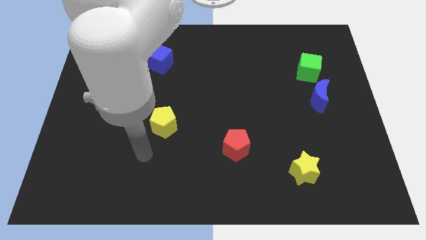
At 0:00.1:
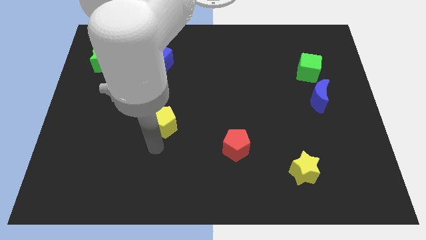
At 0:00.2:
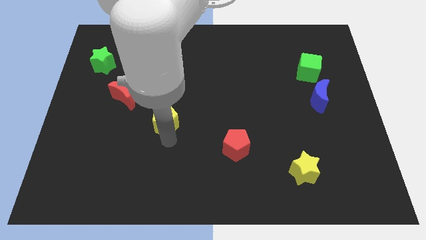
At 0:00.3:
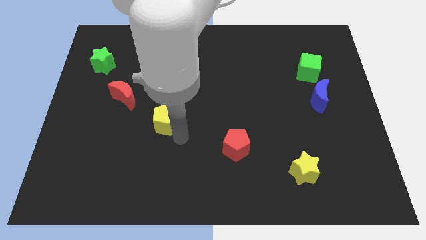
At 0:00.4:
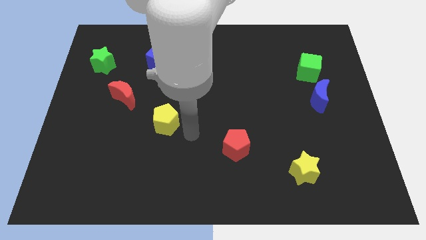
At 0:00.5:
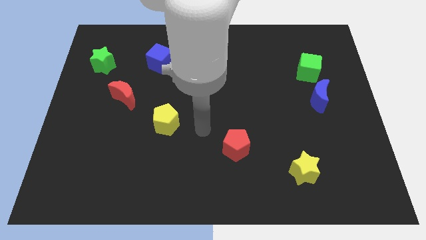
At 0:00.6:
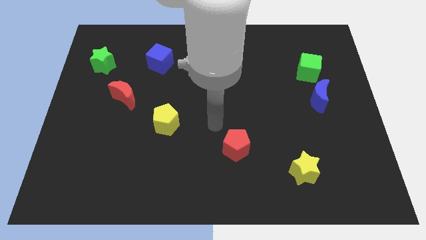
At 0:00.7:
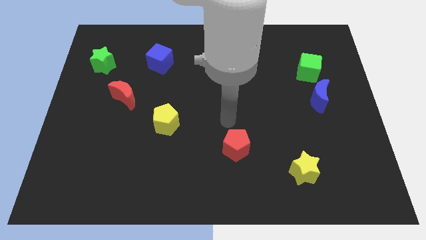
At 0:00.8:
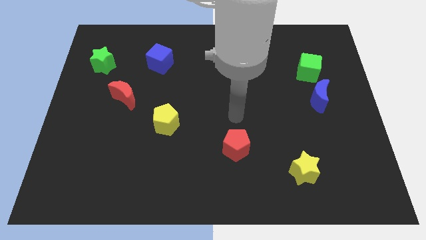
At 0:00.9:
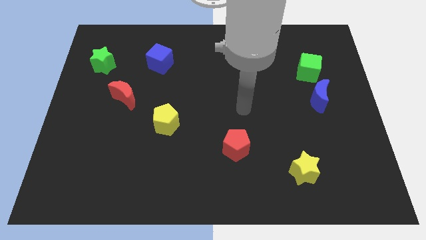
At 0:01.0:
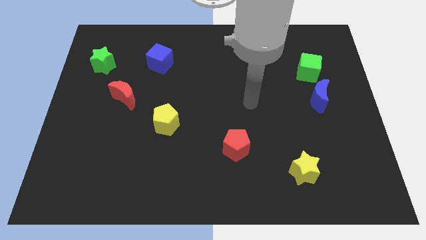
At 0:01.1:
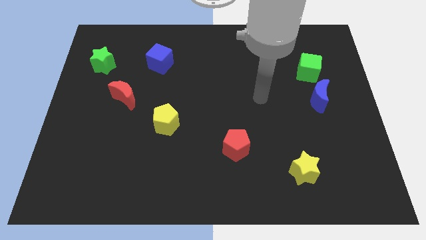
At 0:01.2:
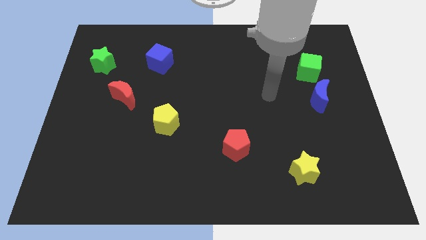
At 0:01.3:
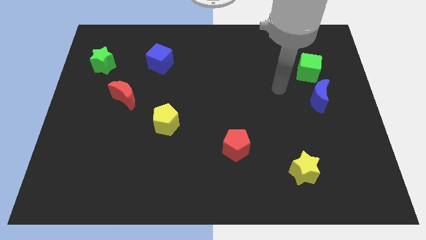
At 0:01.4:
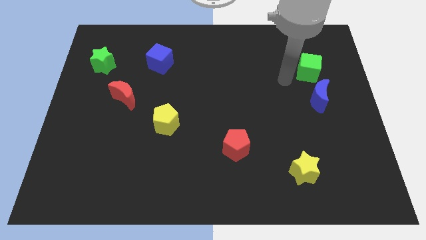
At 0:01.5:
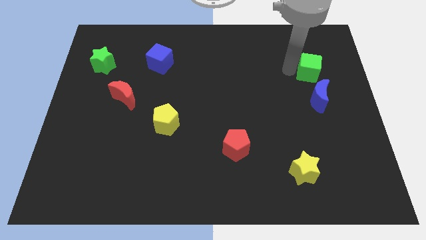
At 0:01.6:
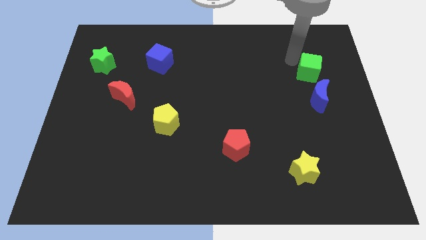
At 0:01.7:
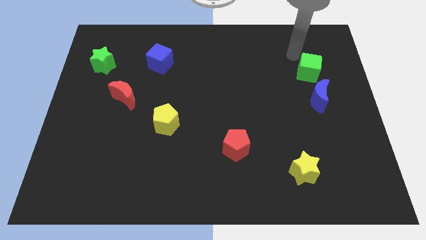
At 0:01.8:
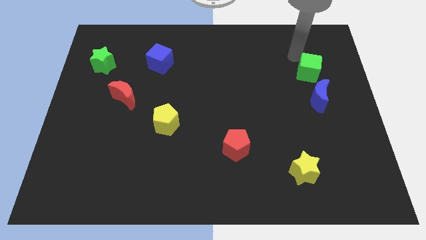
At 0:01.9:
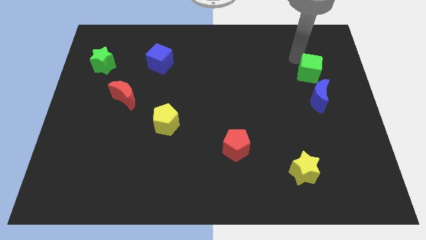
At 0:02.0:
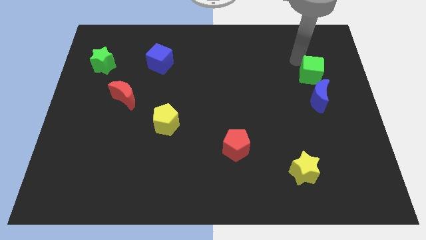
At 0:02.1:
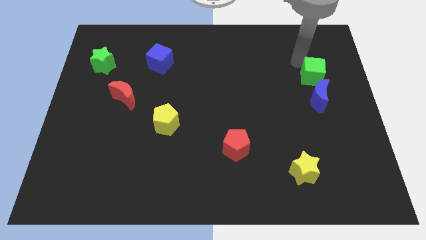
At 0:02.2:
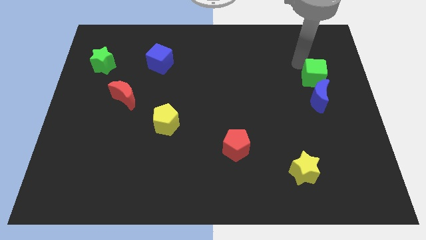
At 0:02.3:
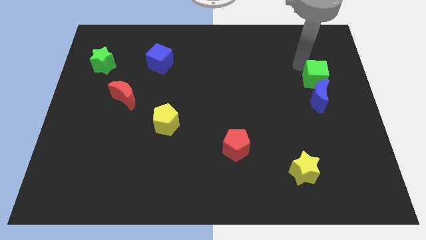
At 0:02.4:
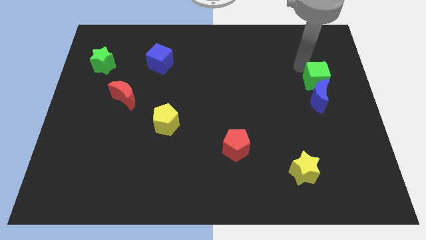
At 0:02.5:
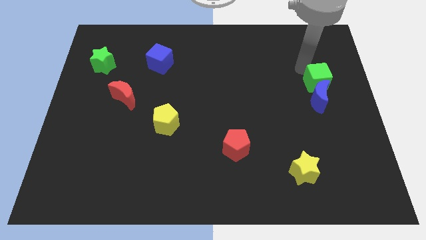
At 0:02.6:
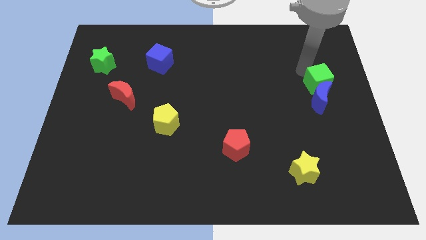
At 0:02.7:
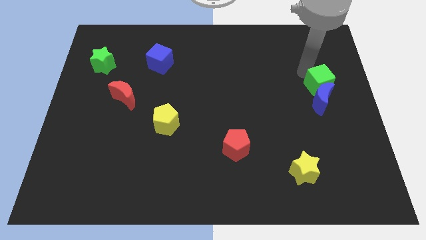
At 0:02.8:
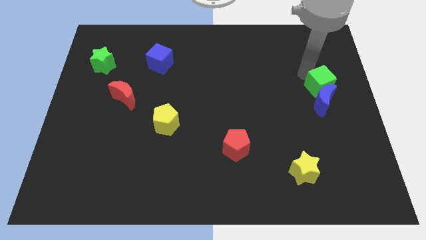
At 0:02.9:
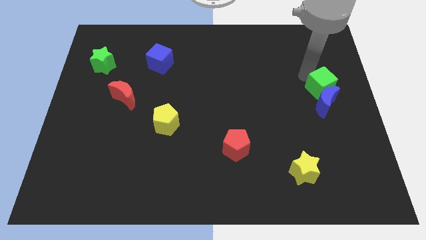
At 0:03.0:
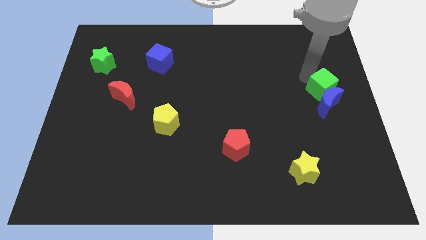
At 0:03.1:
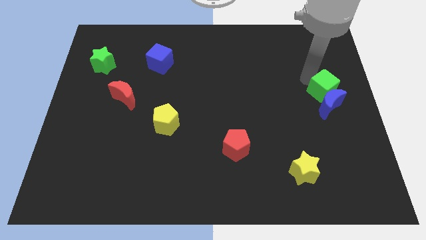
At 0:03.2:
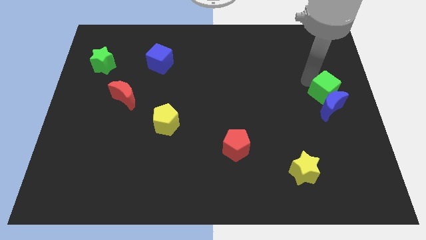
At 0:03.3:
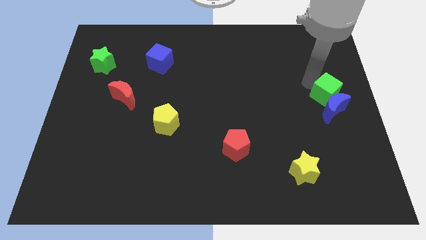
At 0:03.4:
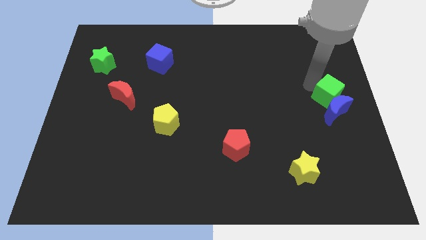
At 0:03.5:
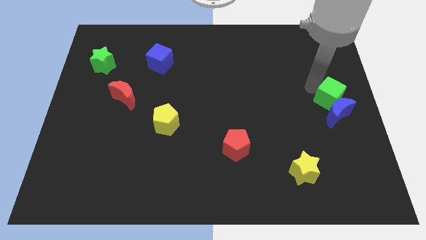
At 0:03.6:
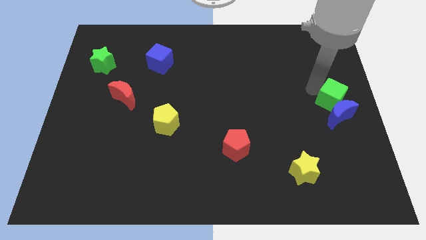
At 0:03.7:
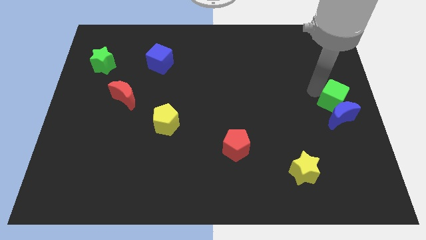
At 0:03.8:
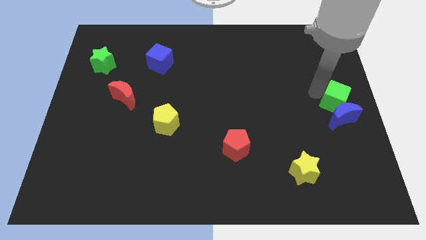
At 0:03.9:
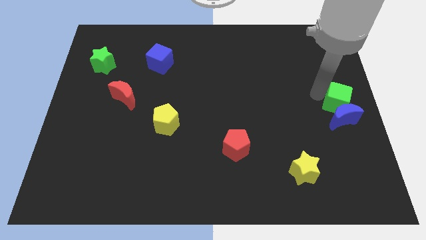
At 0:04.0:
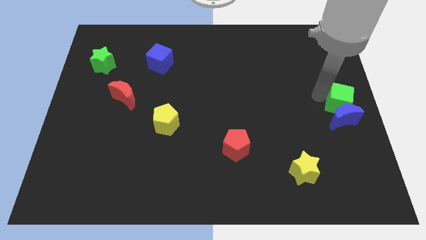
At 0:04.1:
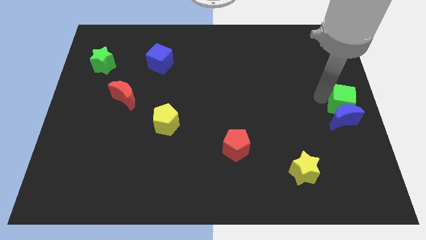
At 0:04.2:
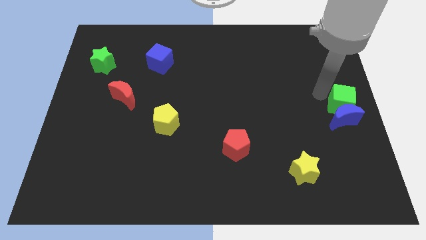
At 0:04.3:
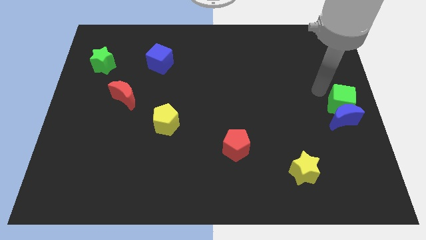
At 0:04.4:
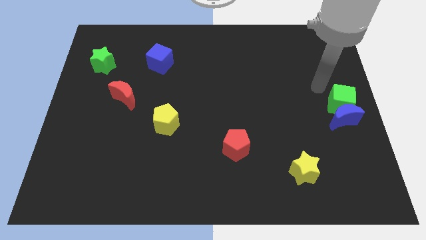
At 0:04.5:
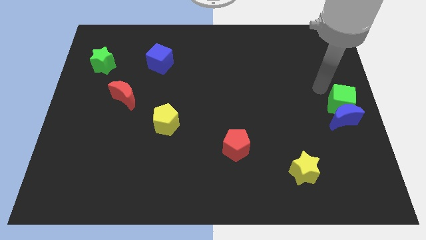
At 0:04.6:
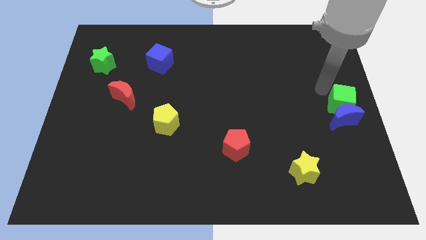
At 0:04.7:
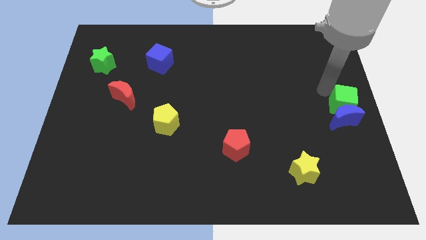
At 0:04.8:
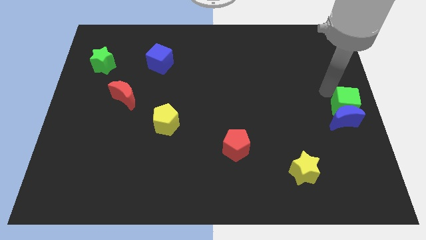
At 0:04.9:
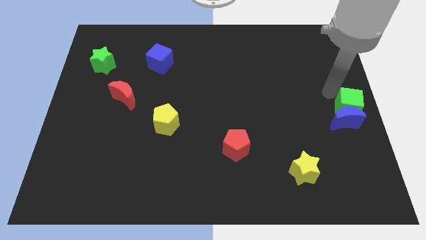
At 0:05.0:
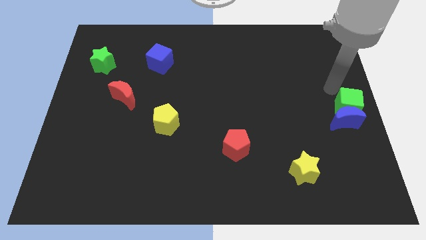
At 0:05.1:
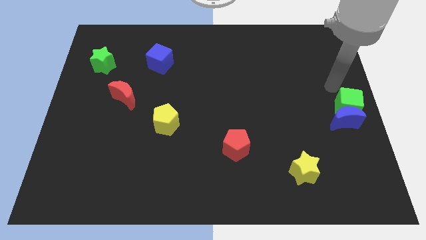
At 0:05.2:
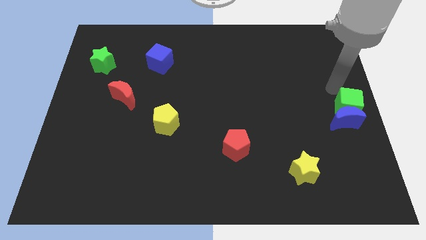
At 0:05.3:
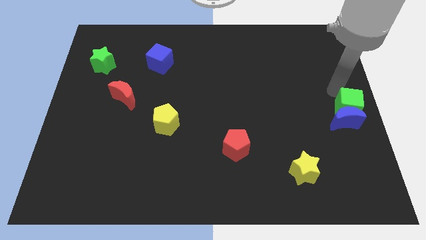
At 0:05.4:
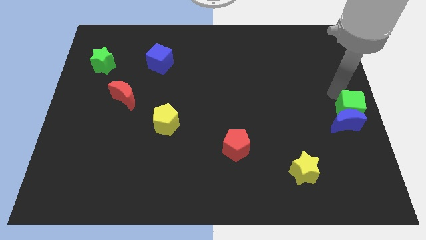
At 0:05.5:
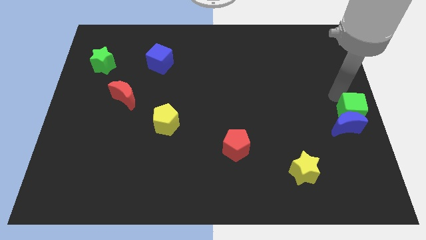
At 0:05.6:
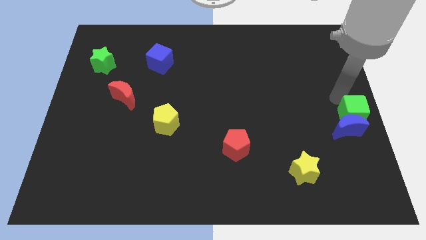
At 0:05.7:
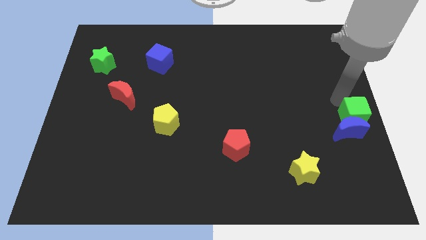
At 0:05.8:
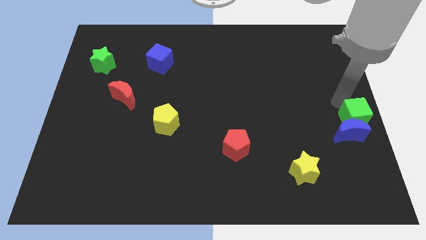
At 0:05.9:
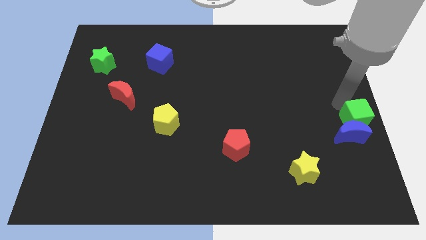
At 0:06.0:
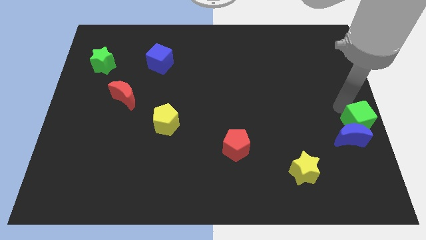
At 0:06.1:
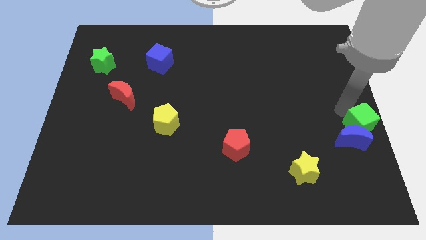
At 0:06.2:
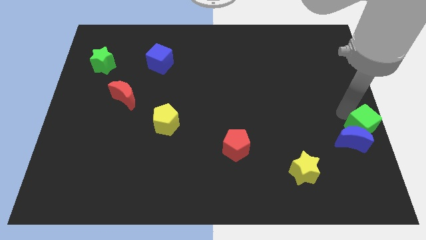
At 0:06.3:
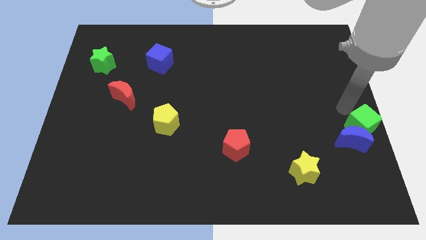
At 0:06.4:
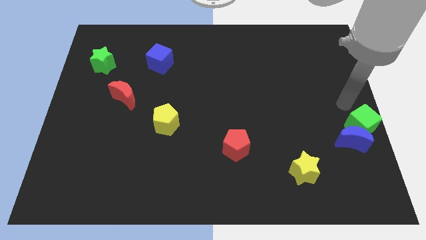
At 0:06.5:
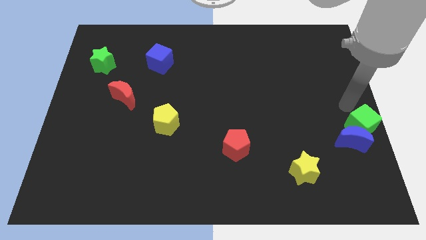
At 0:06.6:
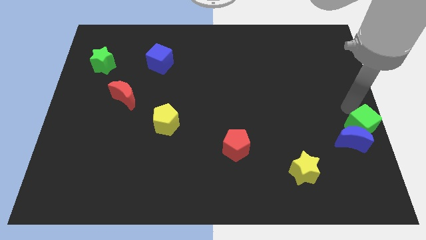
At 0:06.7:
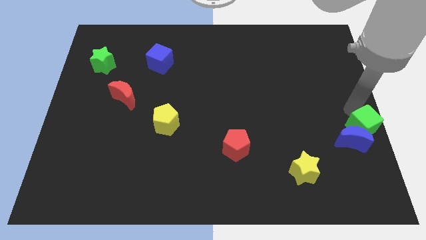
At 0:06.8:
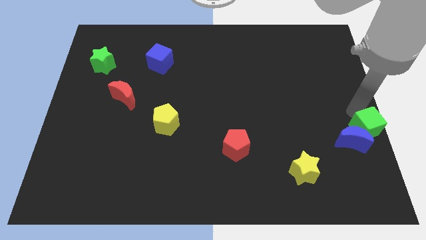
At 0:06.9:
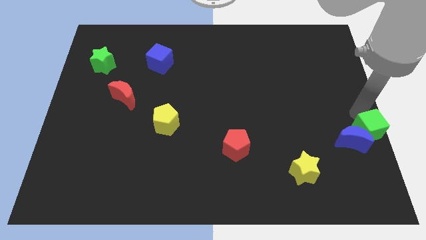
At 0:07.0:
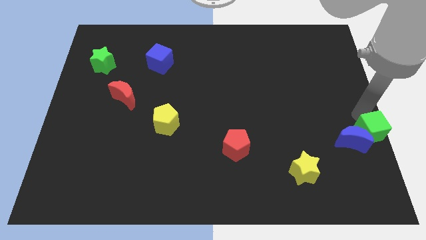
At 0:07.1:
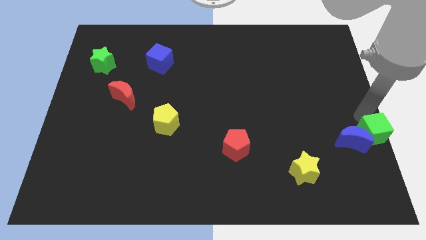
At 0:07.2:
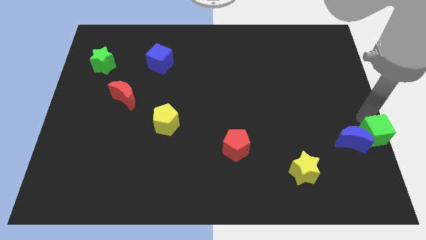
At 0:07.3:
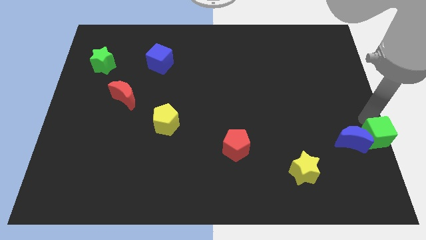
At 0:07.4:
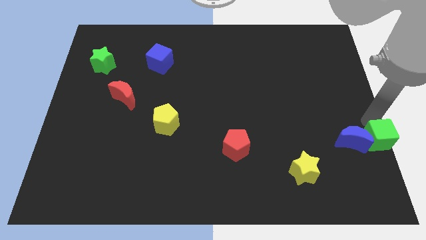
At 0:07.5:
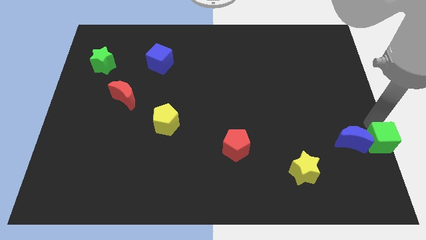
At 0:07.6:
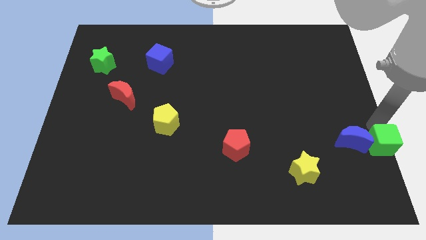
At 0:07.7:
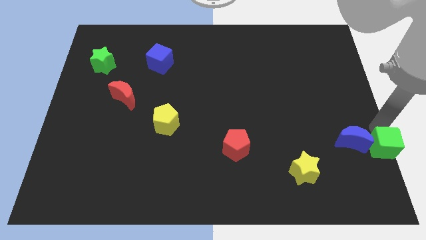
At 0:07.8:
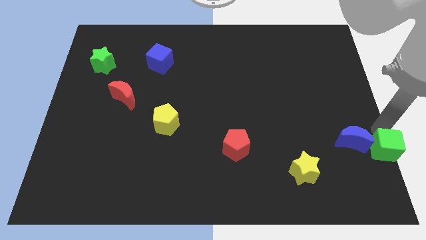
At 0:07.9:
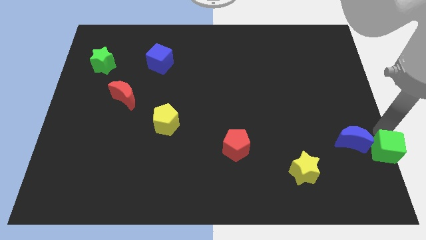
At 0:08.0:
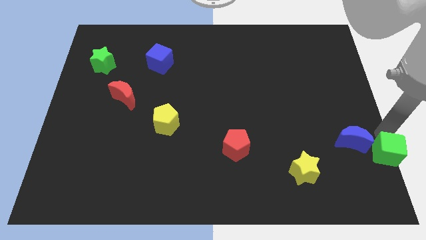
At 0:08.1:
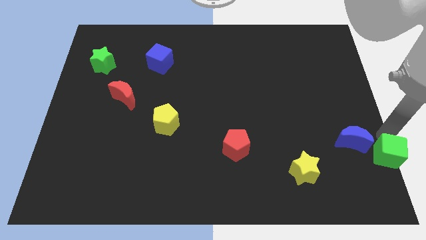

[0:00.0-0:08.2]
put the green cube to the bottom right of the board
